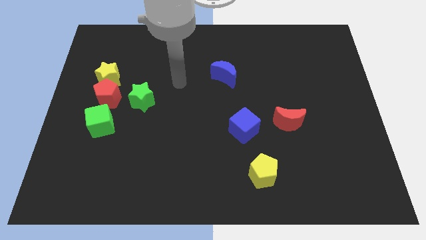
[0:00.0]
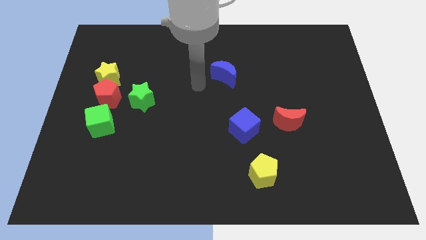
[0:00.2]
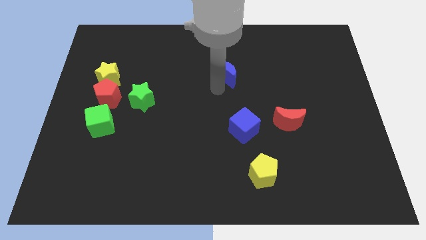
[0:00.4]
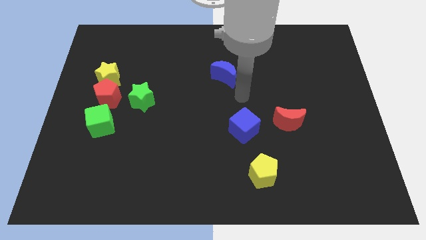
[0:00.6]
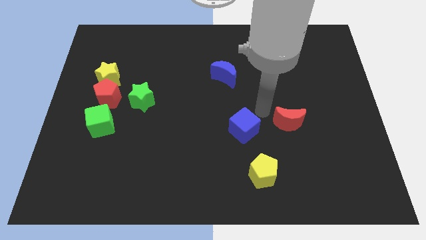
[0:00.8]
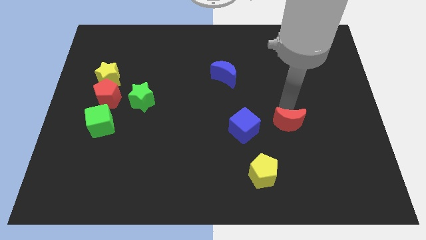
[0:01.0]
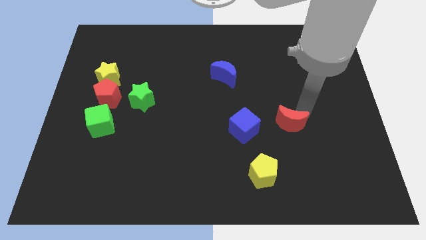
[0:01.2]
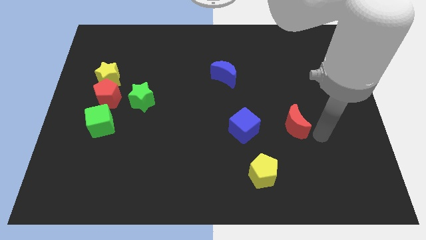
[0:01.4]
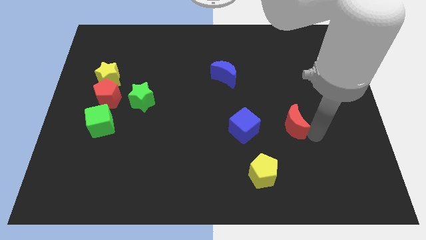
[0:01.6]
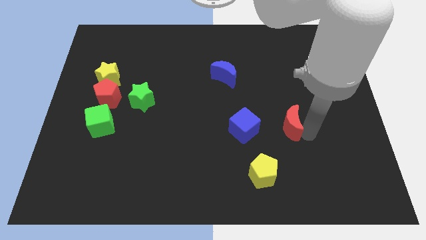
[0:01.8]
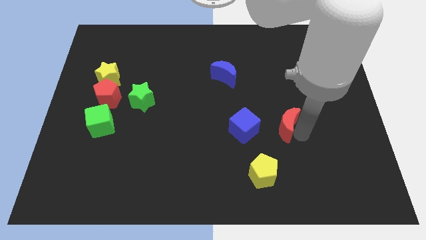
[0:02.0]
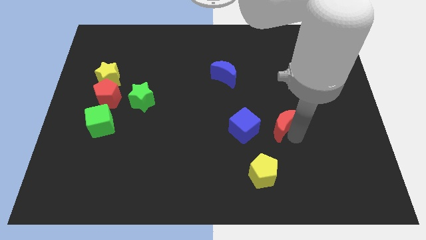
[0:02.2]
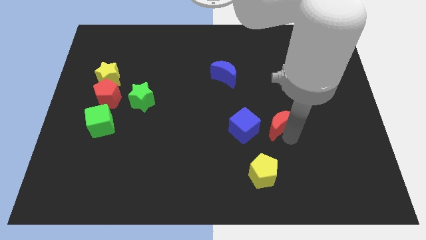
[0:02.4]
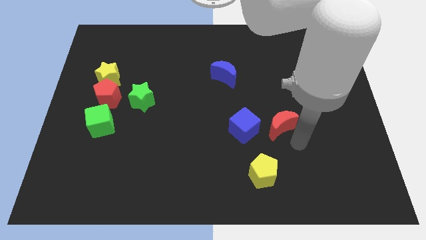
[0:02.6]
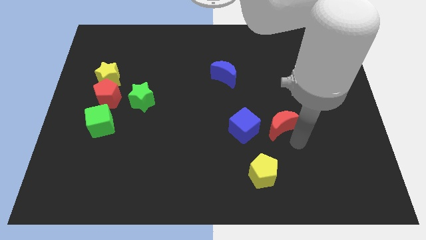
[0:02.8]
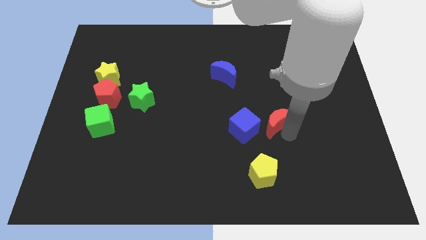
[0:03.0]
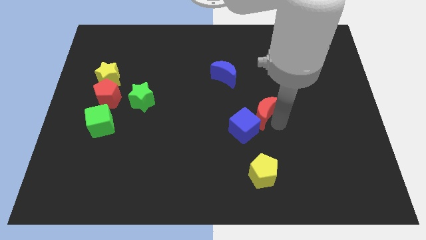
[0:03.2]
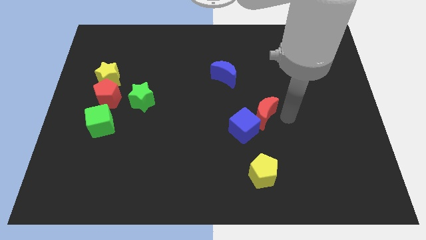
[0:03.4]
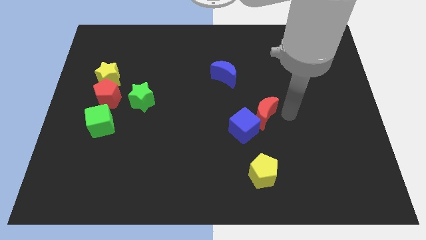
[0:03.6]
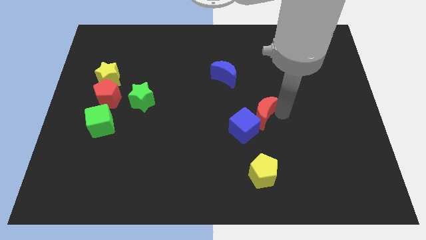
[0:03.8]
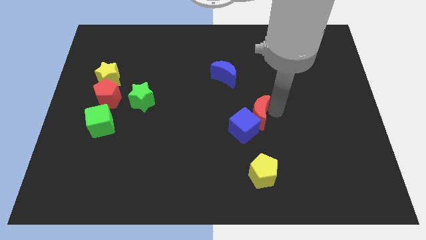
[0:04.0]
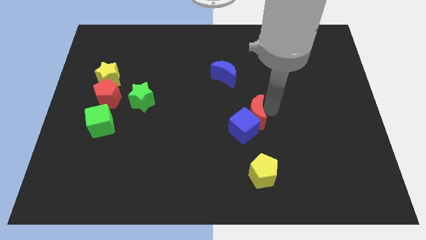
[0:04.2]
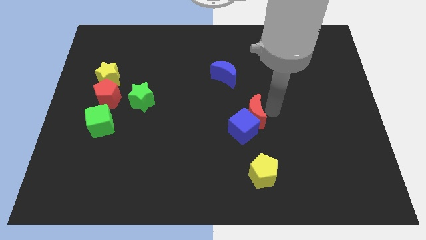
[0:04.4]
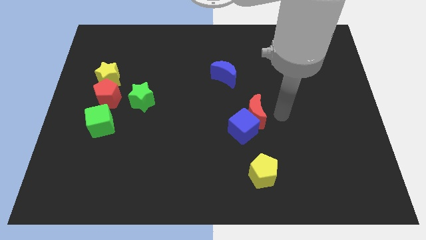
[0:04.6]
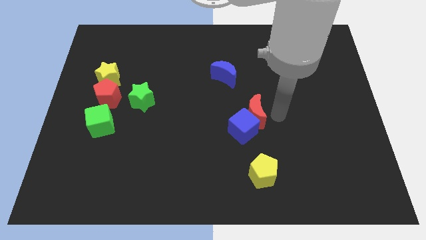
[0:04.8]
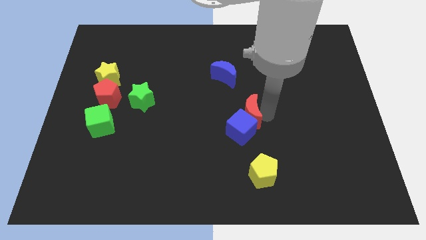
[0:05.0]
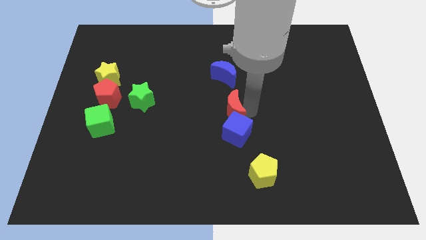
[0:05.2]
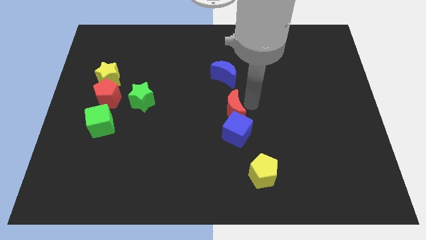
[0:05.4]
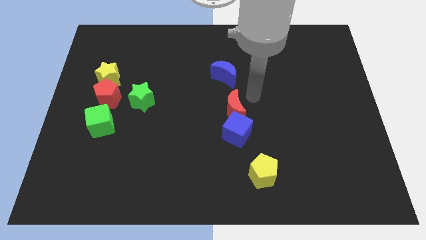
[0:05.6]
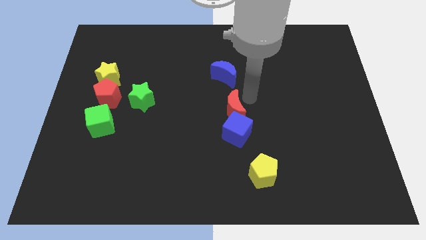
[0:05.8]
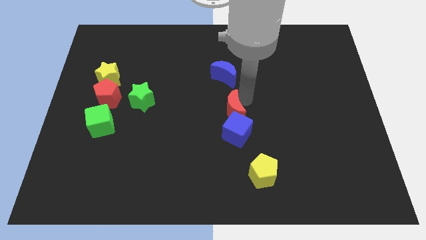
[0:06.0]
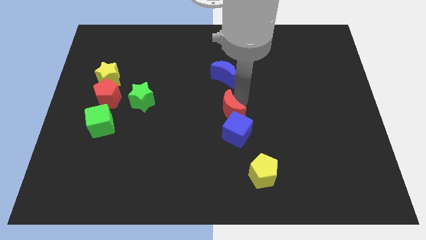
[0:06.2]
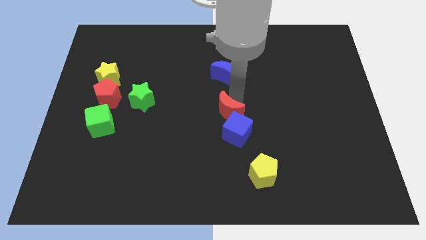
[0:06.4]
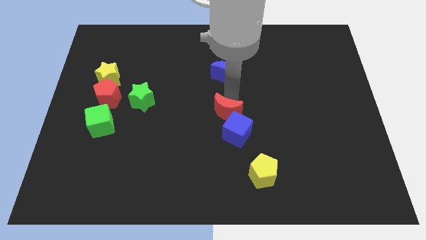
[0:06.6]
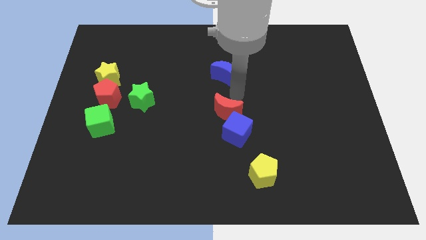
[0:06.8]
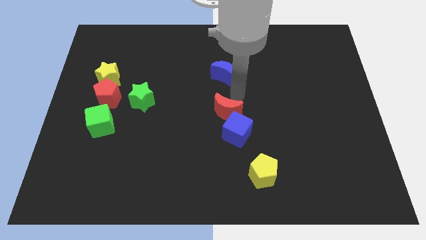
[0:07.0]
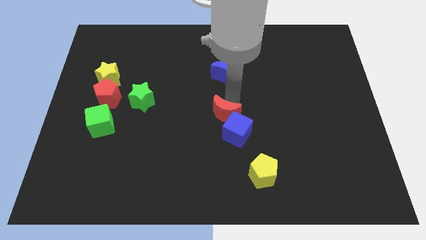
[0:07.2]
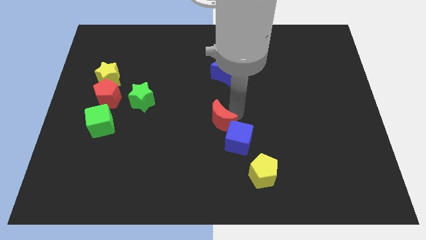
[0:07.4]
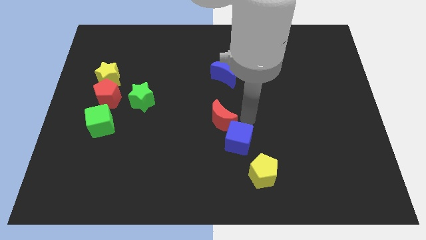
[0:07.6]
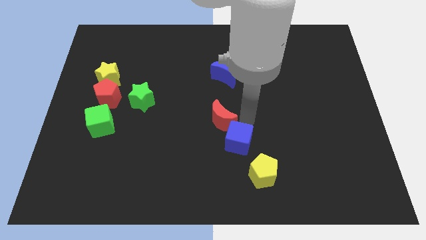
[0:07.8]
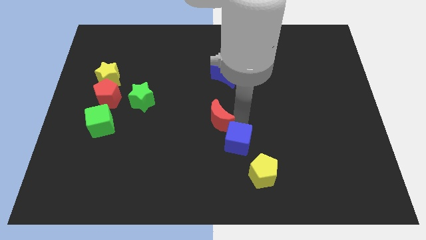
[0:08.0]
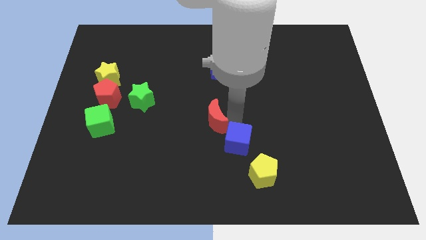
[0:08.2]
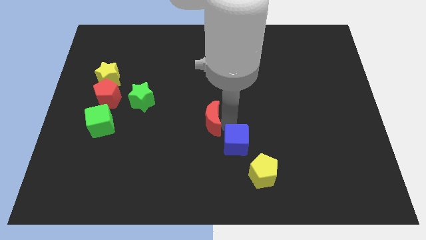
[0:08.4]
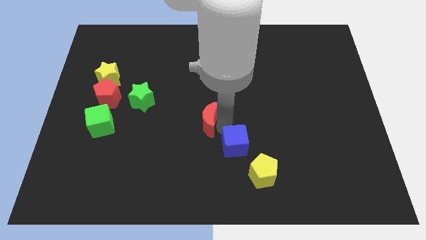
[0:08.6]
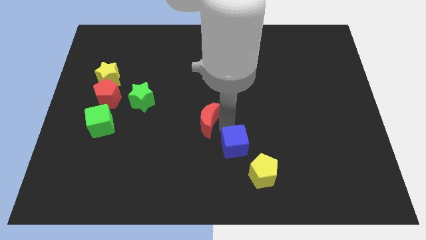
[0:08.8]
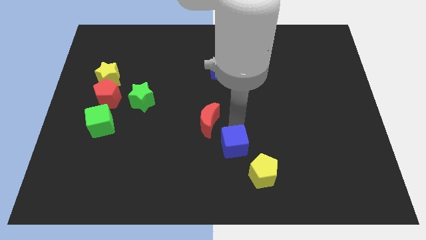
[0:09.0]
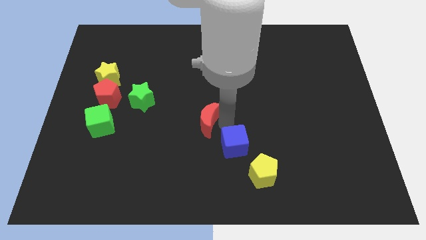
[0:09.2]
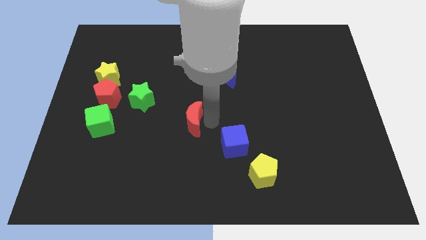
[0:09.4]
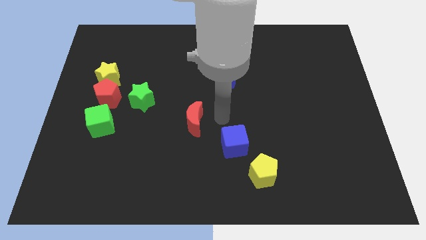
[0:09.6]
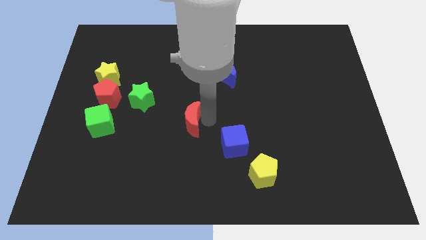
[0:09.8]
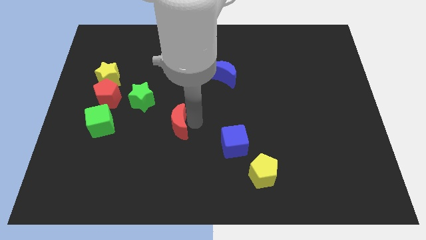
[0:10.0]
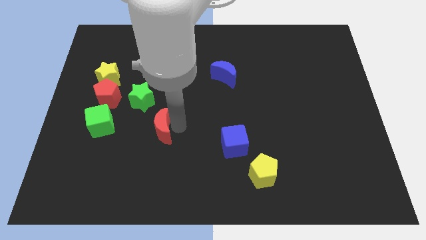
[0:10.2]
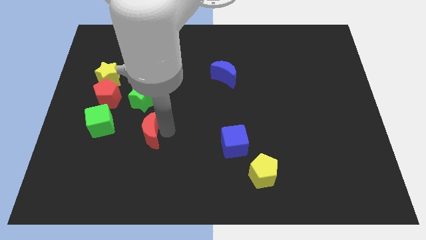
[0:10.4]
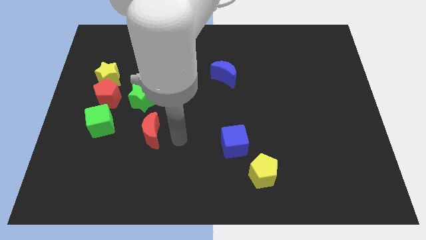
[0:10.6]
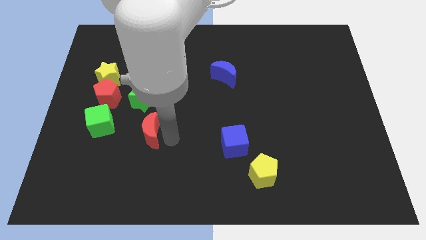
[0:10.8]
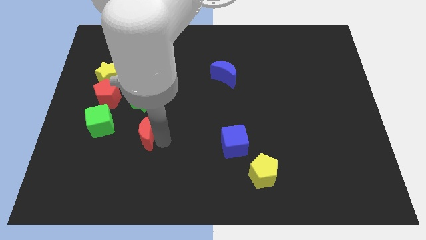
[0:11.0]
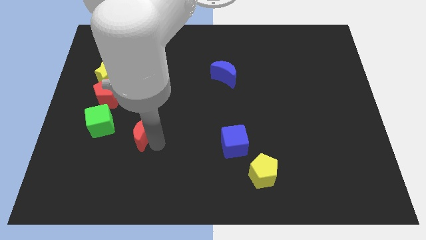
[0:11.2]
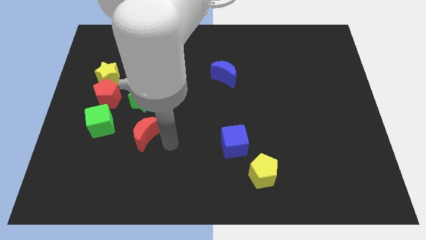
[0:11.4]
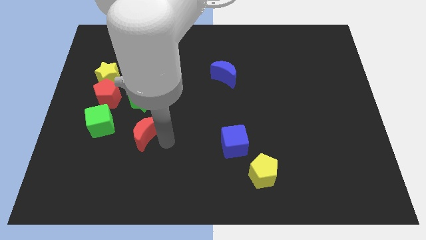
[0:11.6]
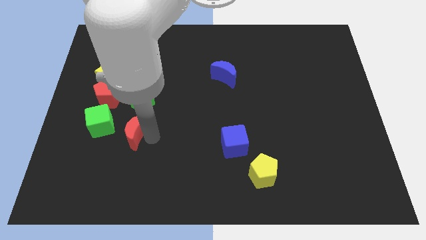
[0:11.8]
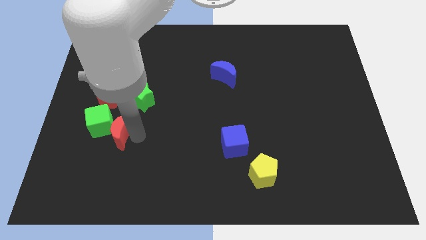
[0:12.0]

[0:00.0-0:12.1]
slide the red moon close to the green cube

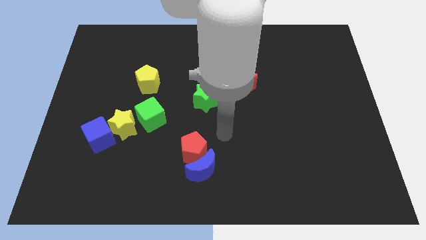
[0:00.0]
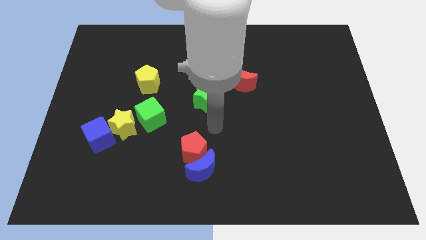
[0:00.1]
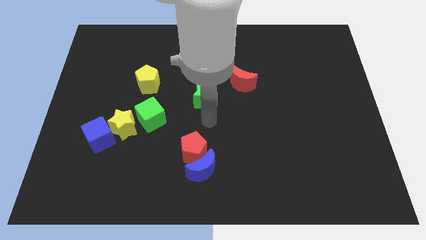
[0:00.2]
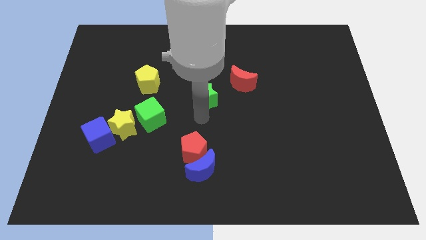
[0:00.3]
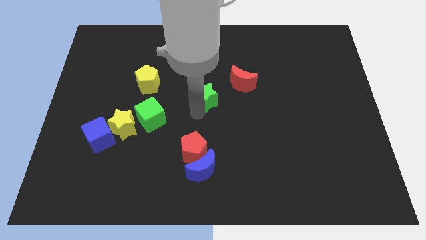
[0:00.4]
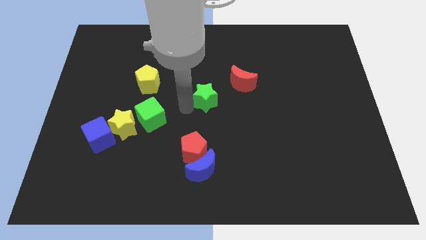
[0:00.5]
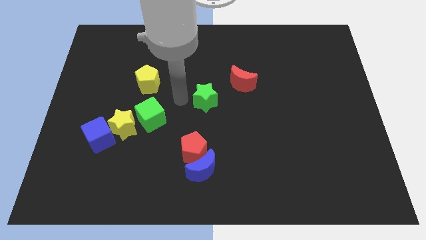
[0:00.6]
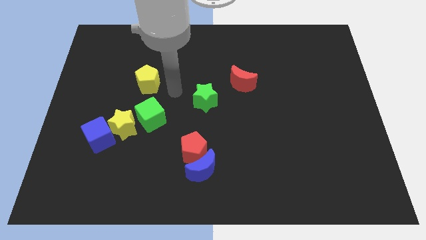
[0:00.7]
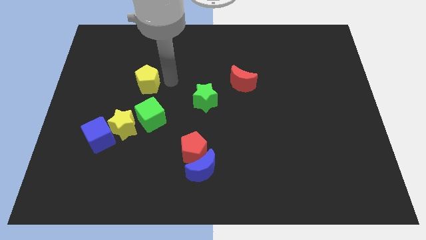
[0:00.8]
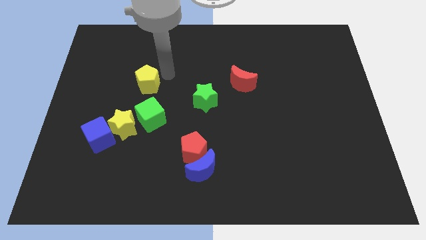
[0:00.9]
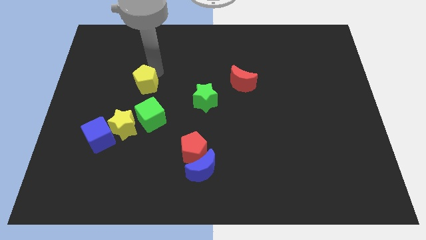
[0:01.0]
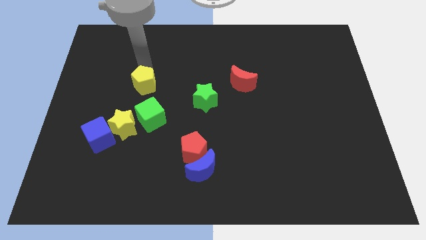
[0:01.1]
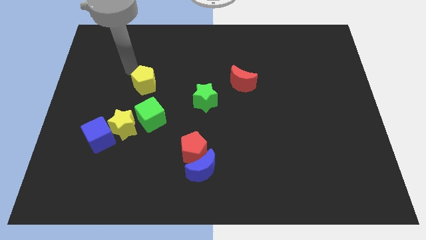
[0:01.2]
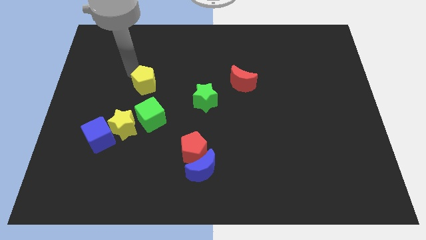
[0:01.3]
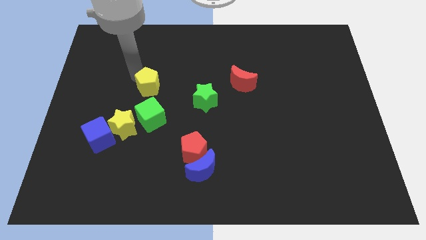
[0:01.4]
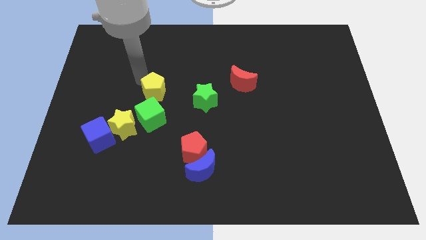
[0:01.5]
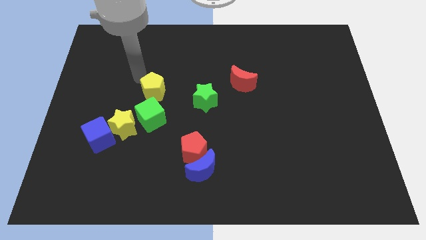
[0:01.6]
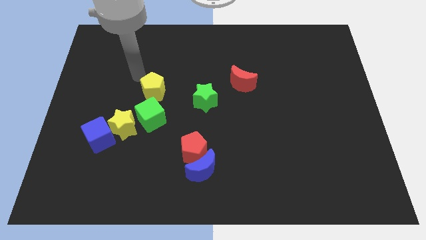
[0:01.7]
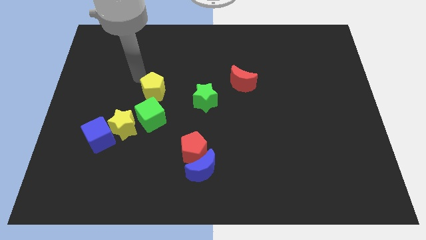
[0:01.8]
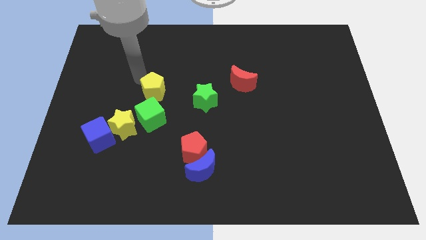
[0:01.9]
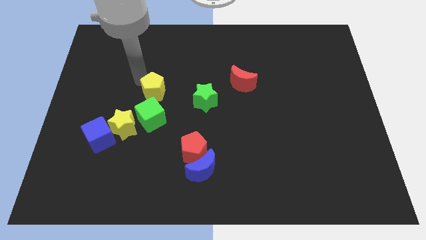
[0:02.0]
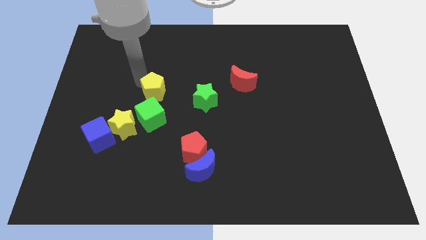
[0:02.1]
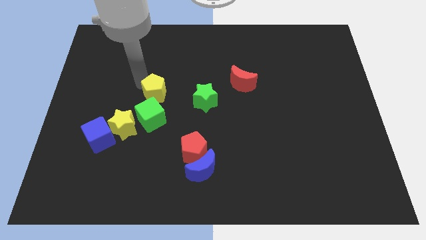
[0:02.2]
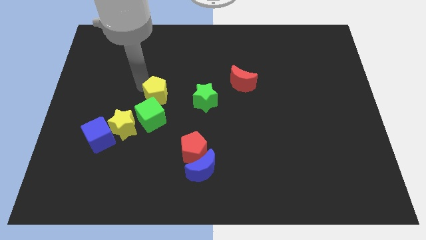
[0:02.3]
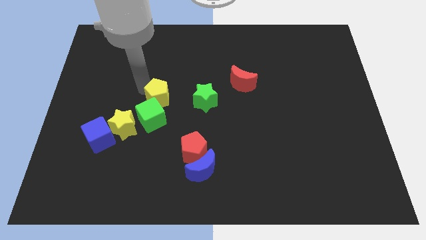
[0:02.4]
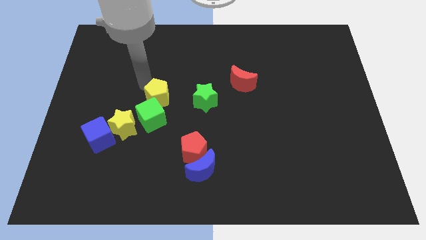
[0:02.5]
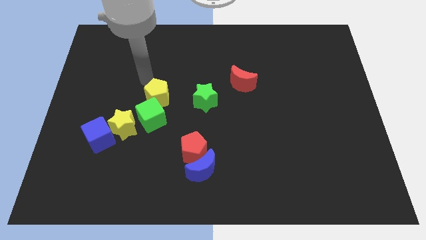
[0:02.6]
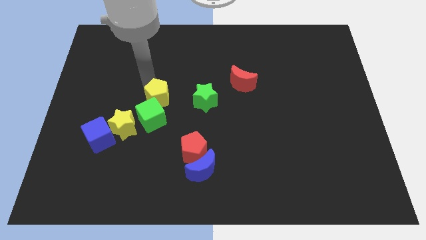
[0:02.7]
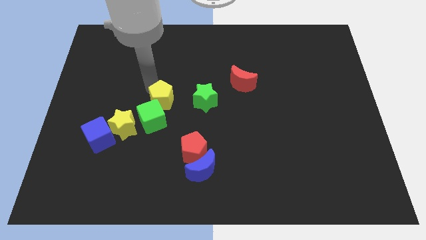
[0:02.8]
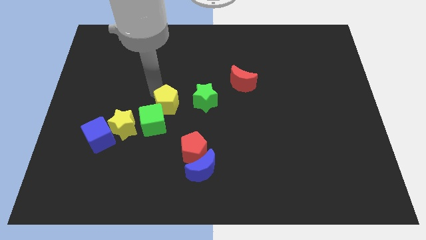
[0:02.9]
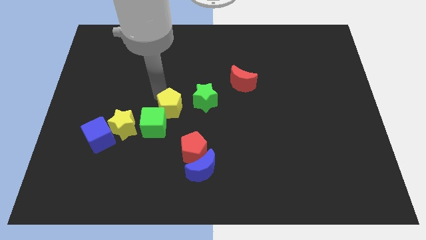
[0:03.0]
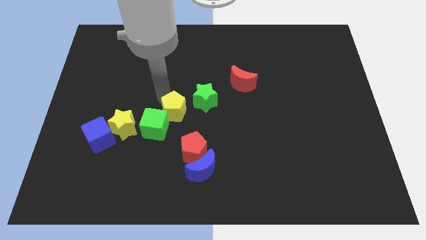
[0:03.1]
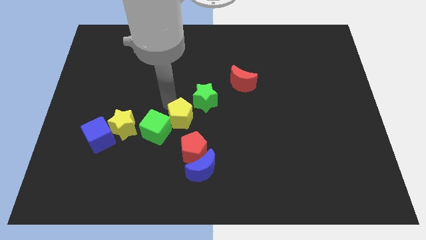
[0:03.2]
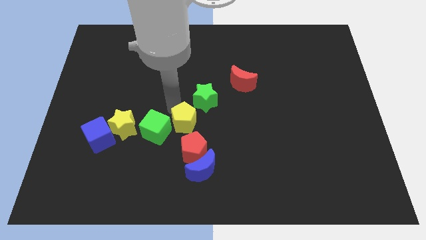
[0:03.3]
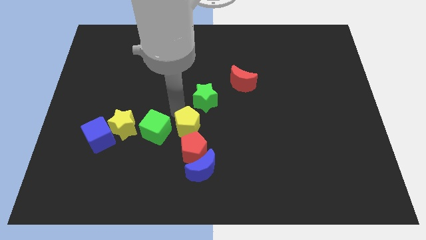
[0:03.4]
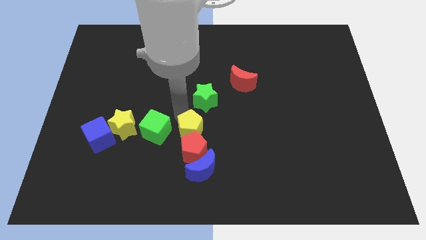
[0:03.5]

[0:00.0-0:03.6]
put the yellow pentagon next to the red pentagon
